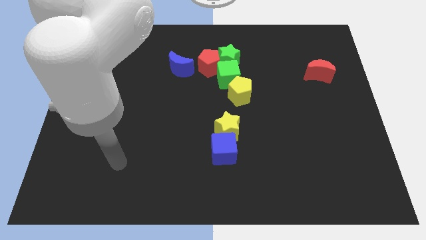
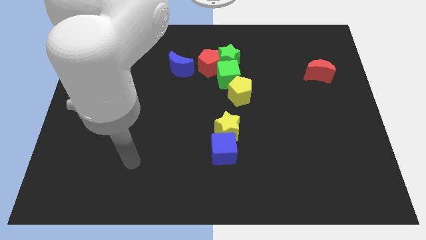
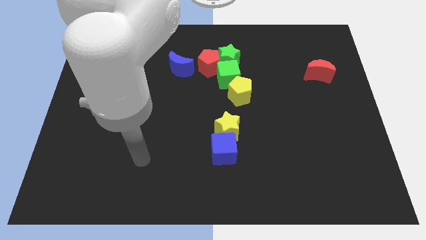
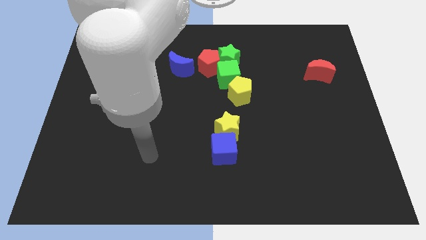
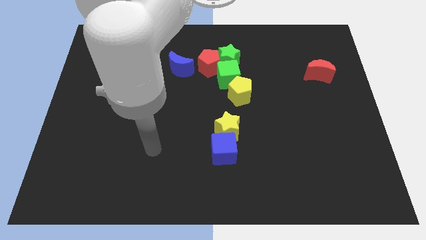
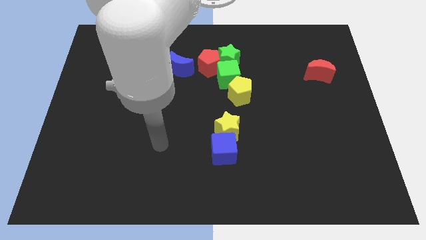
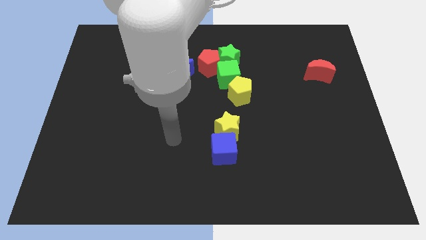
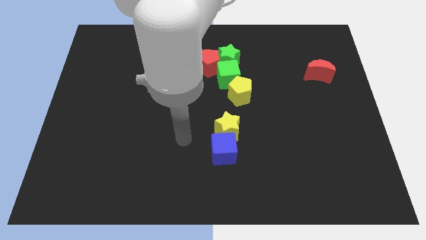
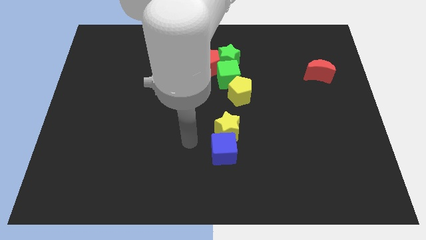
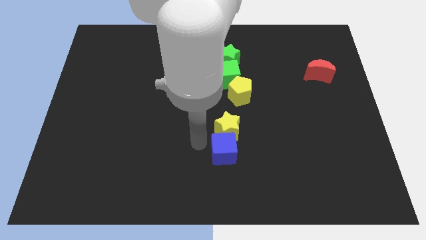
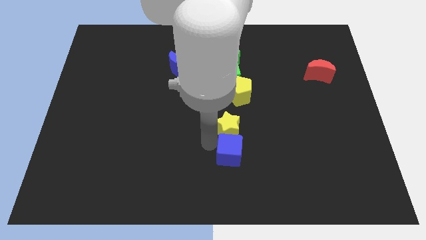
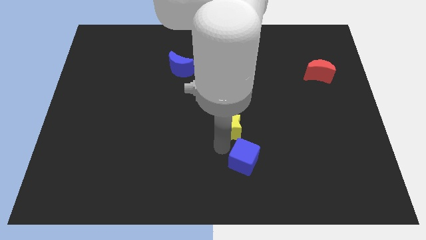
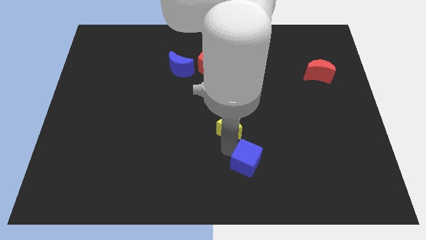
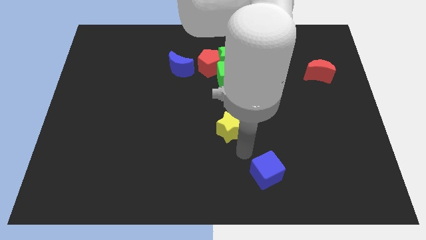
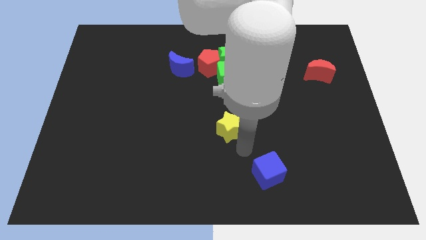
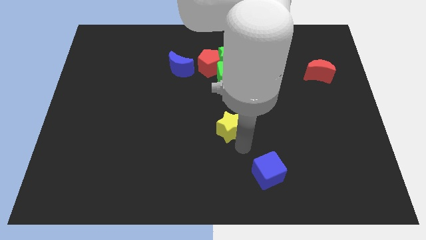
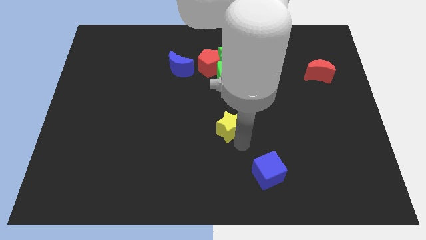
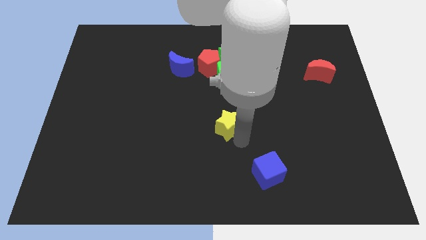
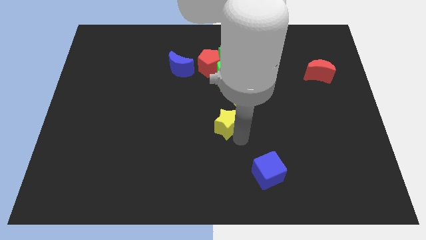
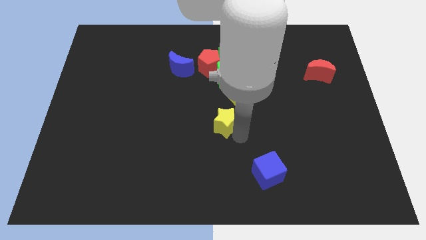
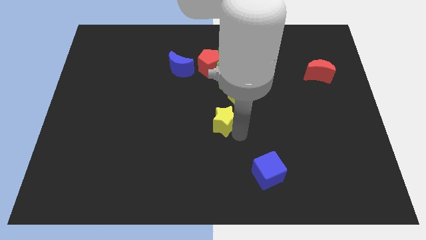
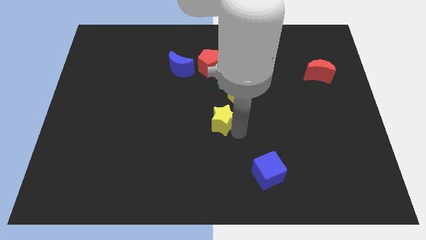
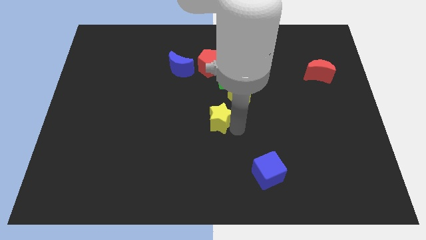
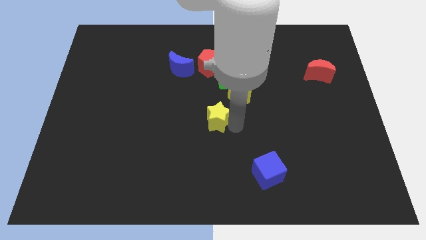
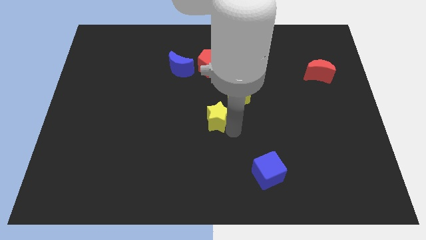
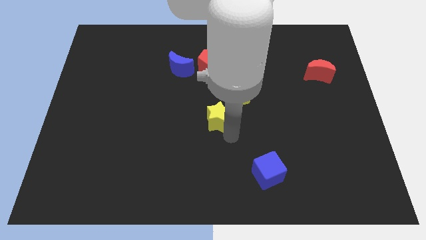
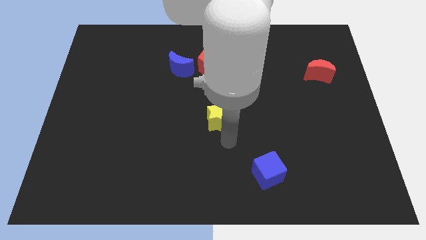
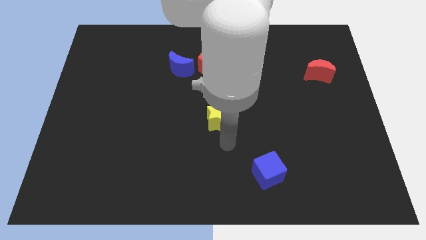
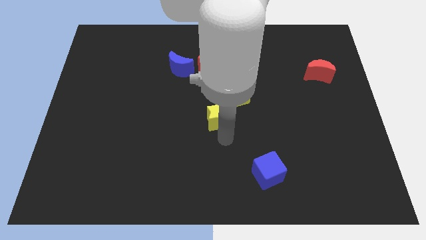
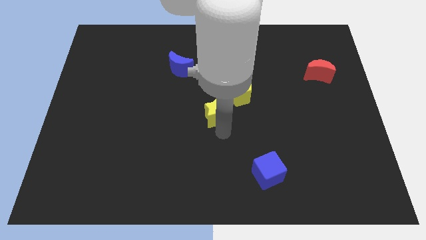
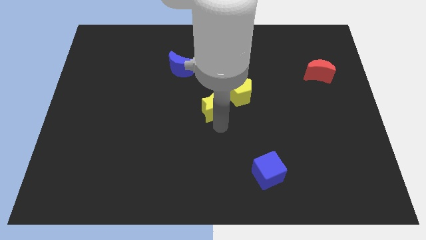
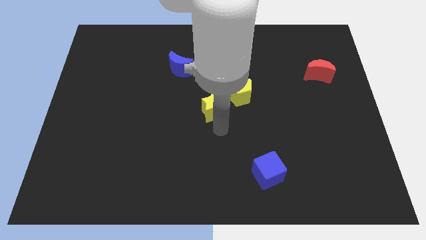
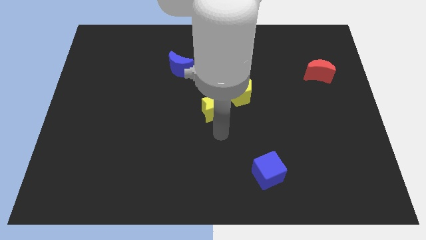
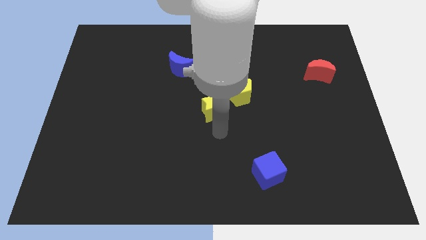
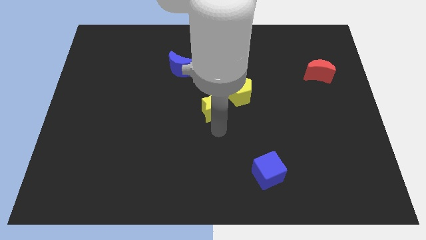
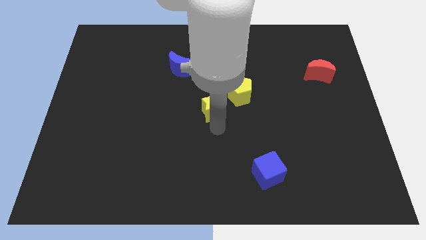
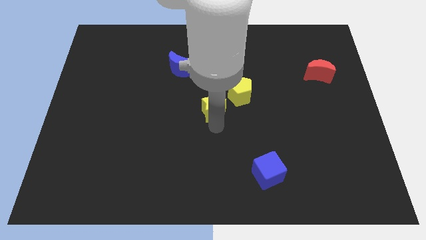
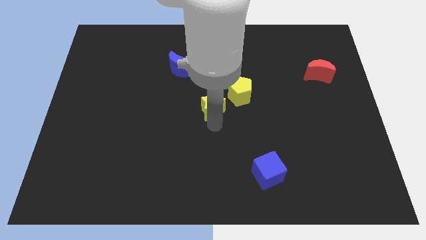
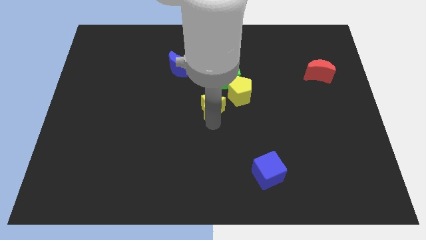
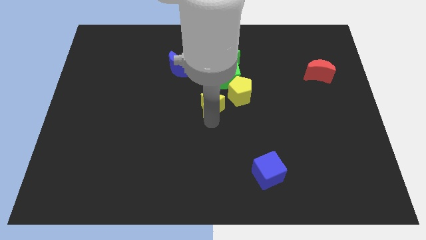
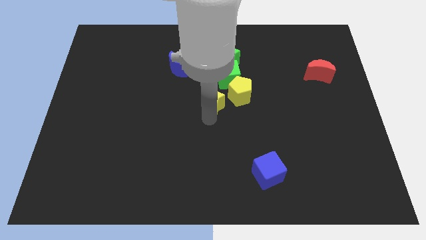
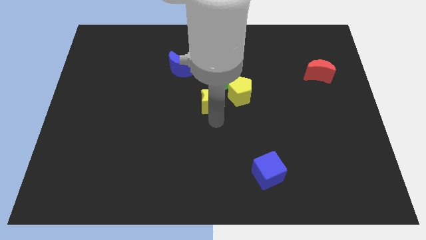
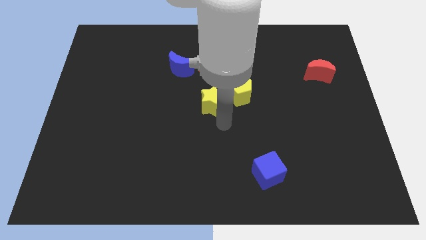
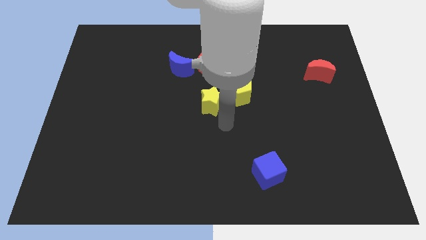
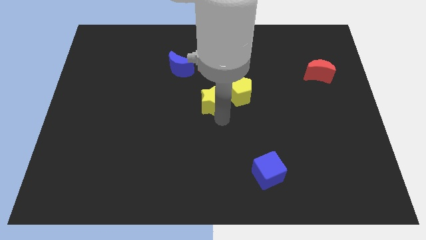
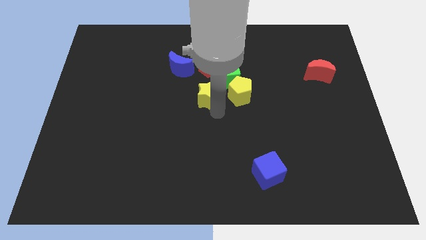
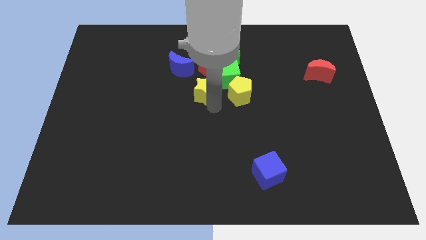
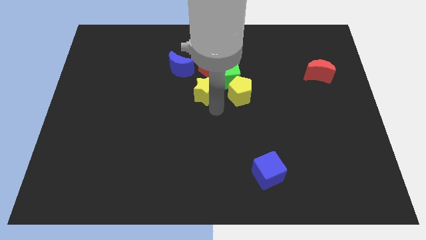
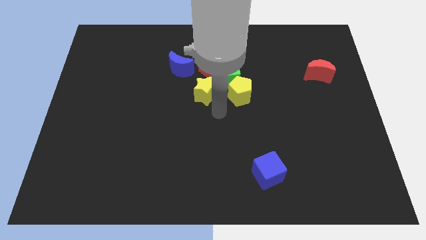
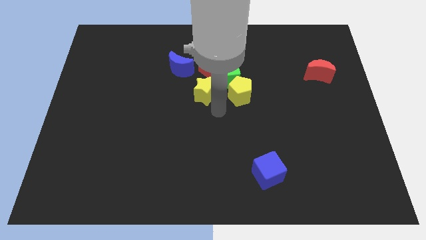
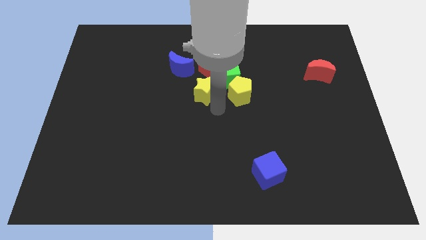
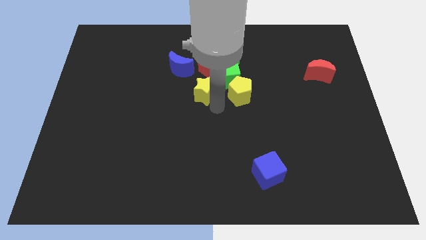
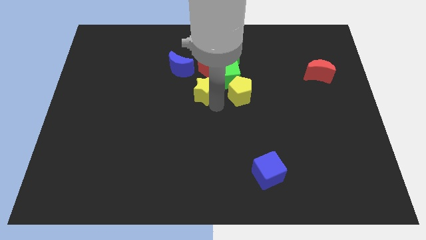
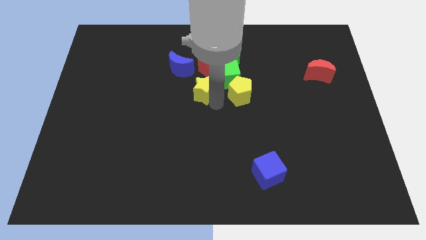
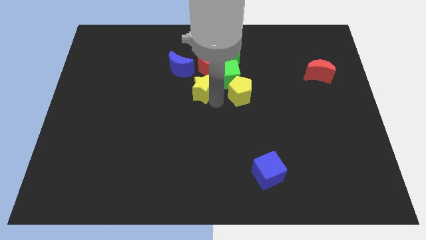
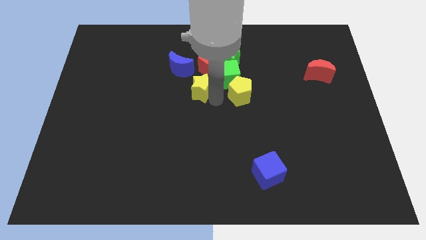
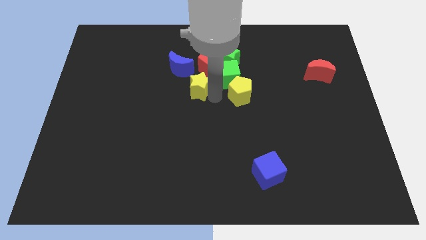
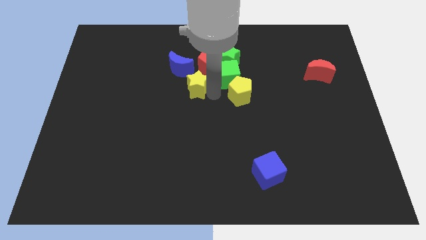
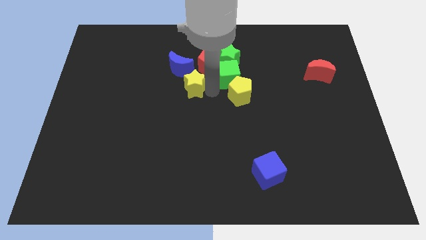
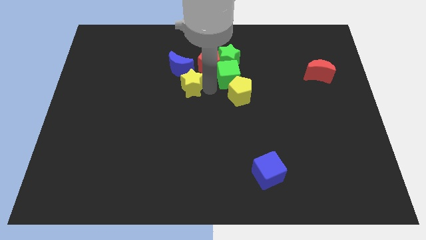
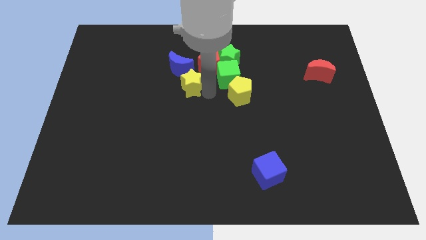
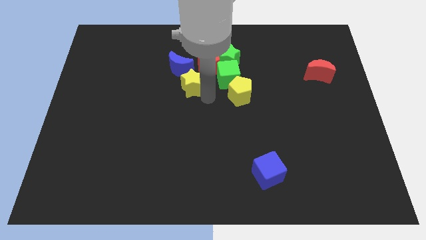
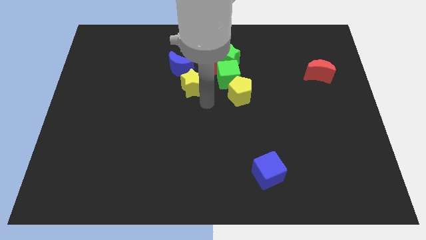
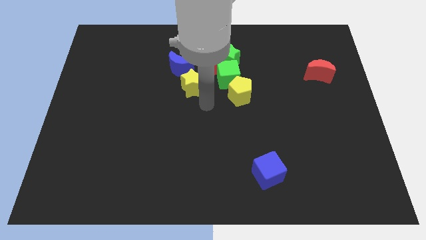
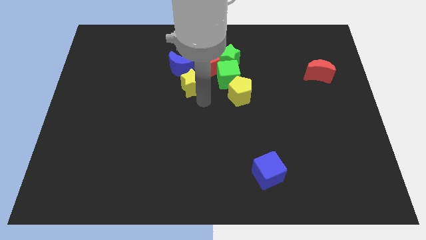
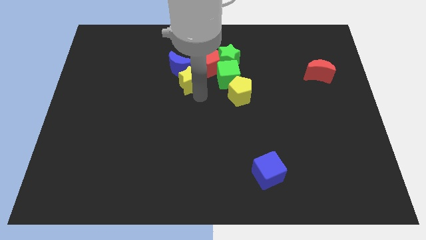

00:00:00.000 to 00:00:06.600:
slide the yellow star close to the blue moon

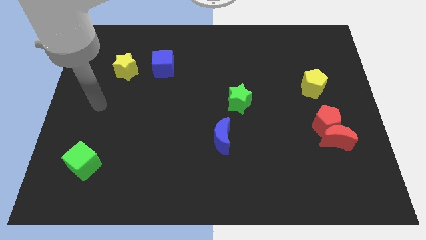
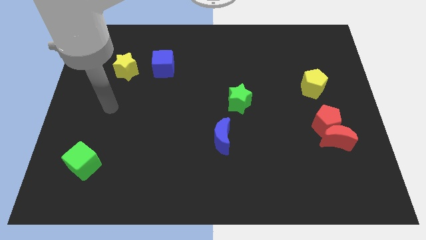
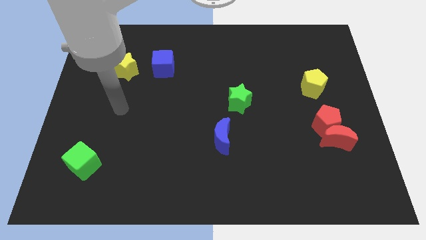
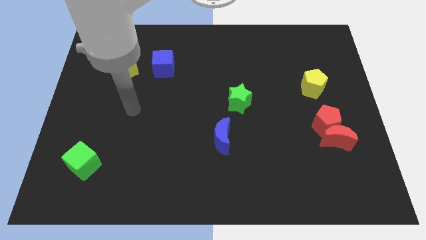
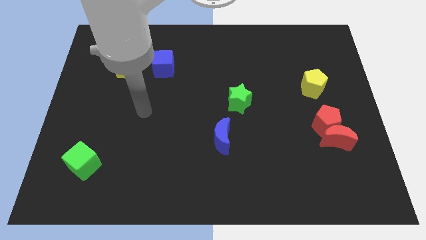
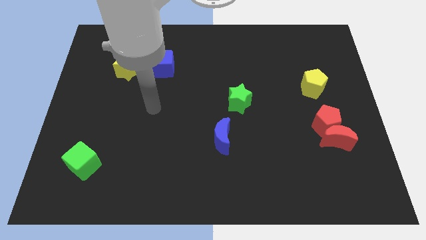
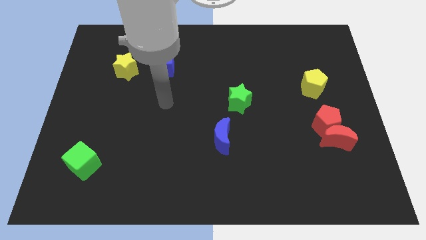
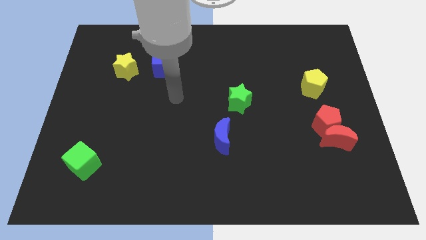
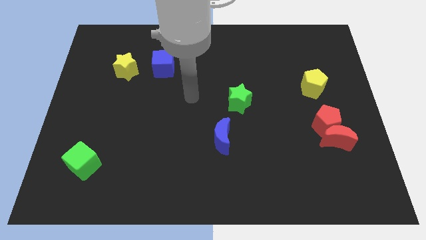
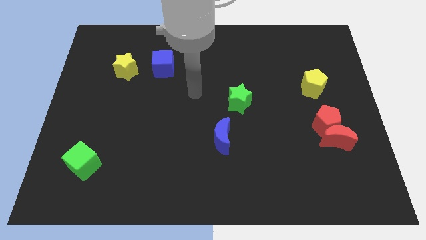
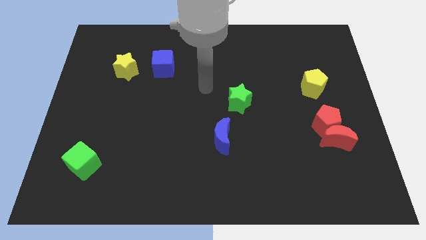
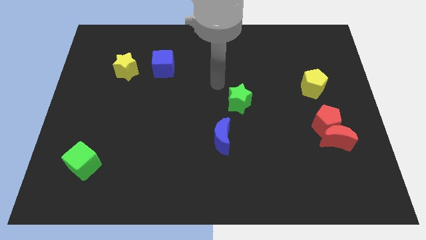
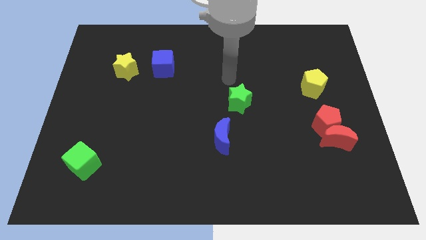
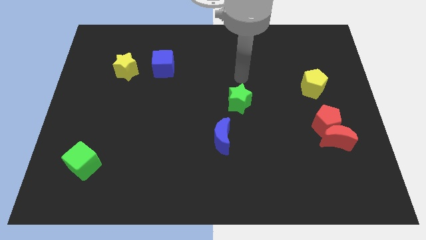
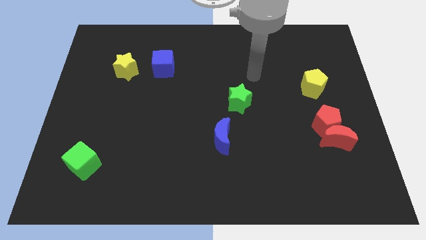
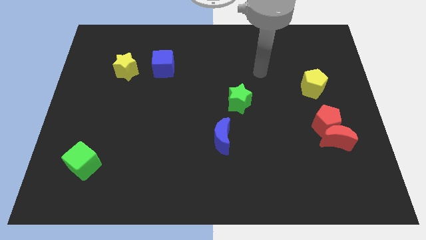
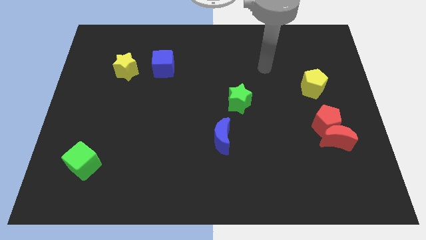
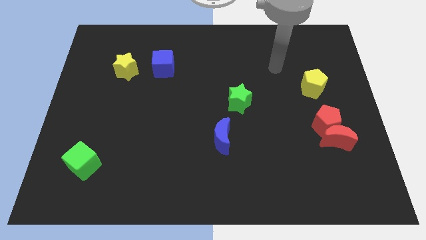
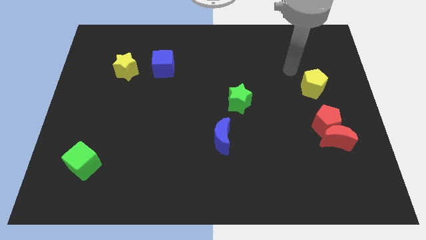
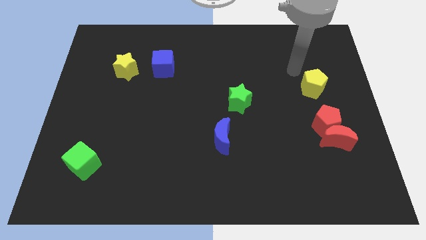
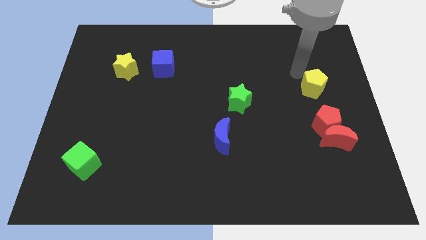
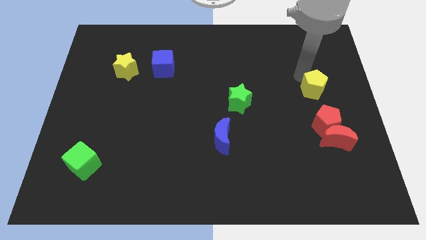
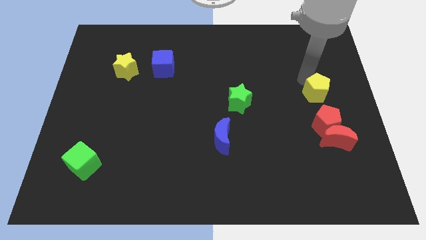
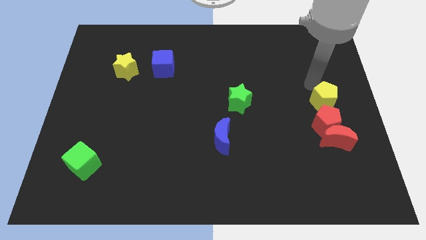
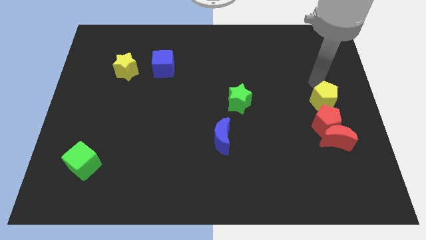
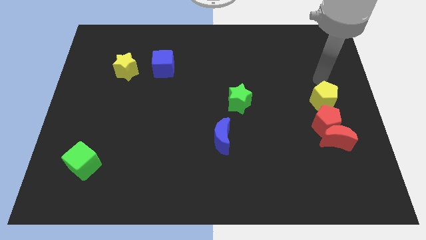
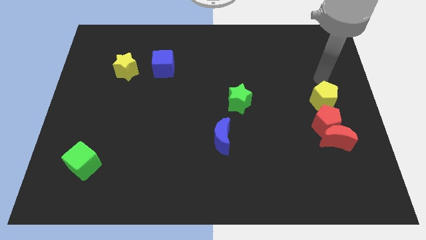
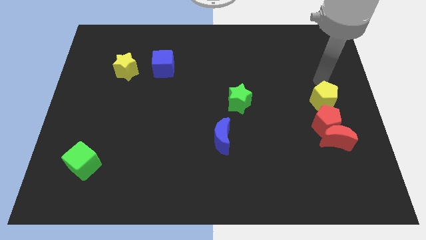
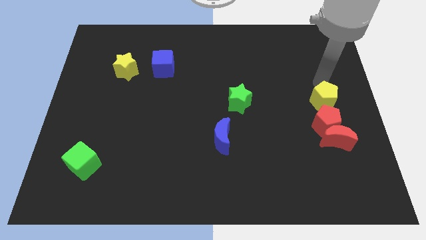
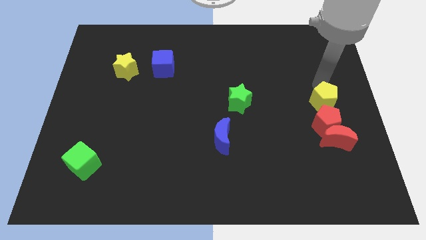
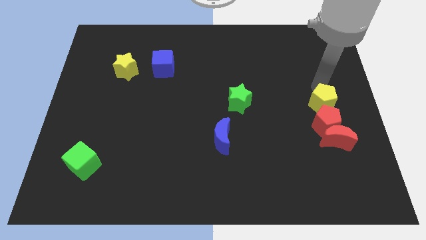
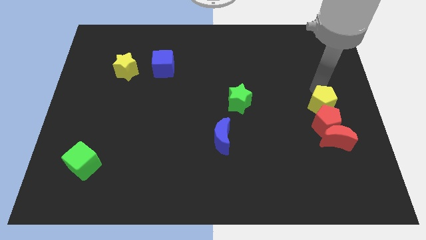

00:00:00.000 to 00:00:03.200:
put the yellow pentagon to the red pentagon
